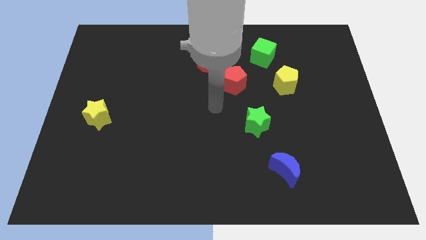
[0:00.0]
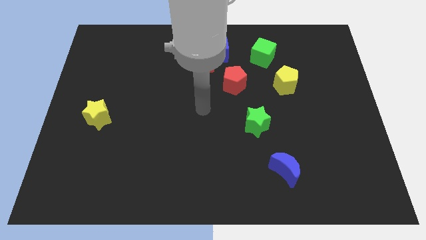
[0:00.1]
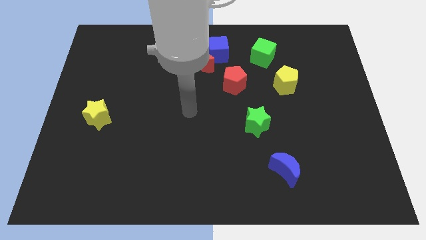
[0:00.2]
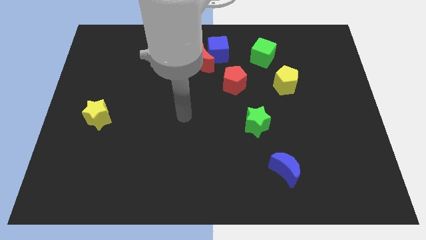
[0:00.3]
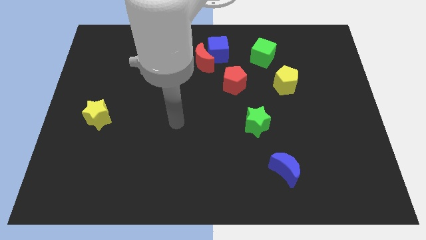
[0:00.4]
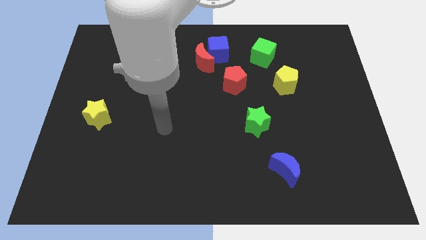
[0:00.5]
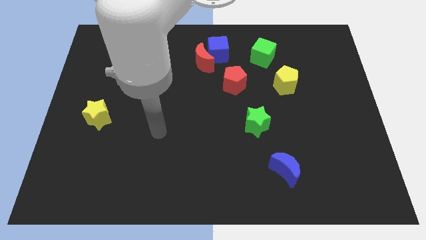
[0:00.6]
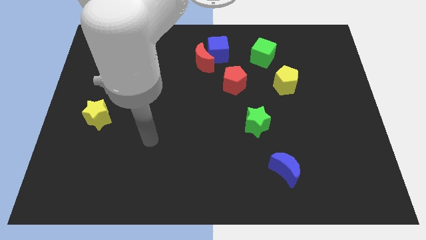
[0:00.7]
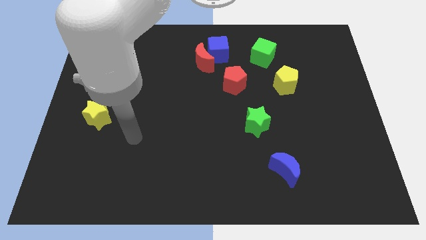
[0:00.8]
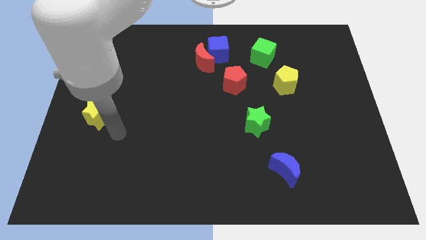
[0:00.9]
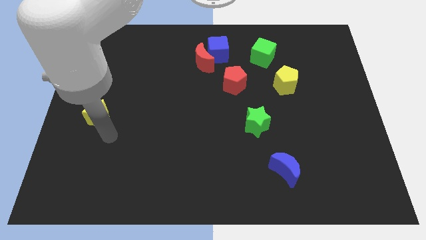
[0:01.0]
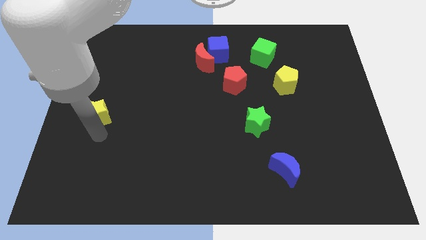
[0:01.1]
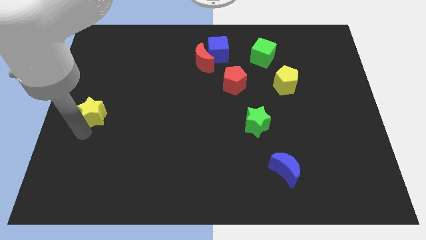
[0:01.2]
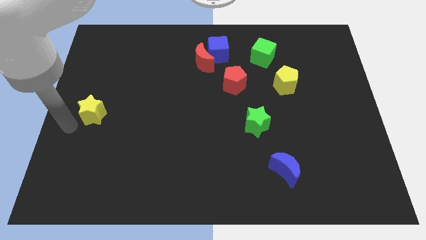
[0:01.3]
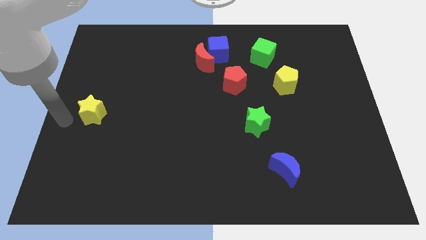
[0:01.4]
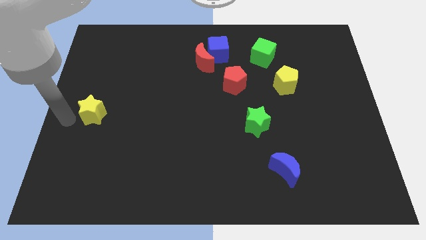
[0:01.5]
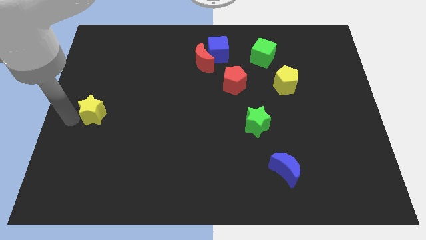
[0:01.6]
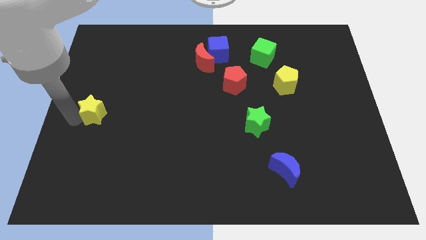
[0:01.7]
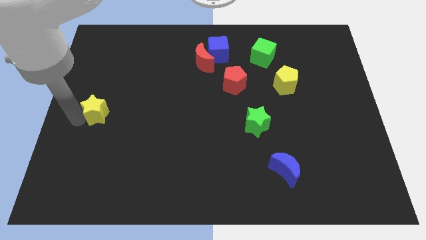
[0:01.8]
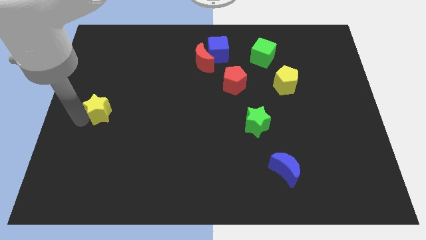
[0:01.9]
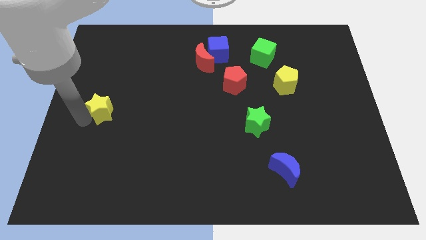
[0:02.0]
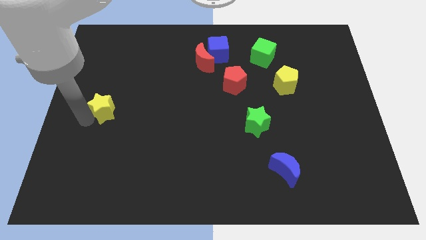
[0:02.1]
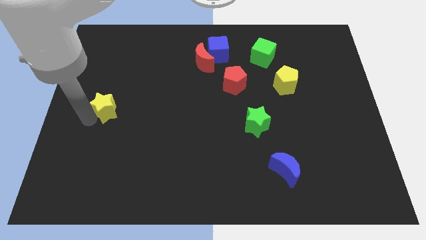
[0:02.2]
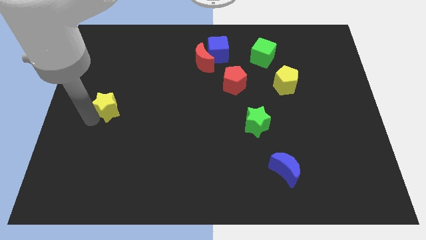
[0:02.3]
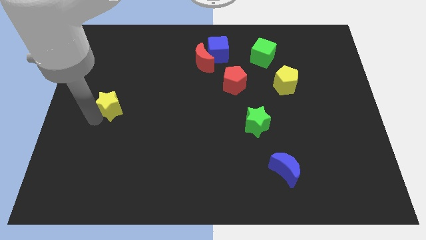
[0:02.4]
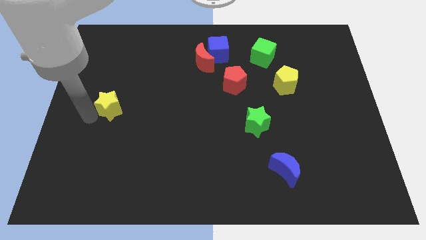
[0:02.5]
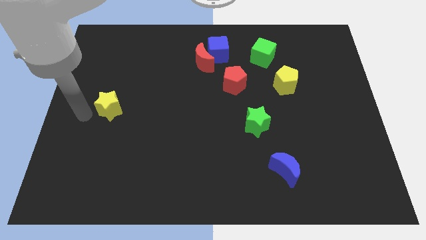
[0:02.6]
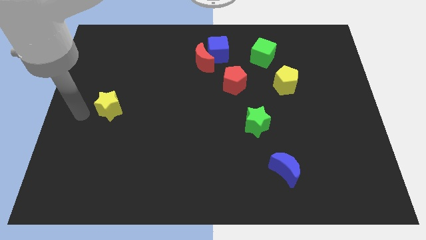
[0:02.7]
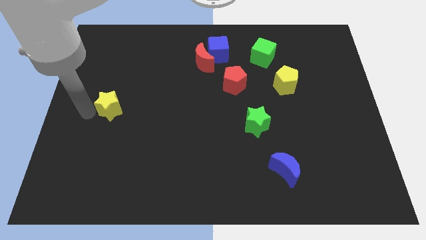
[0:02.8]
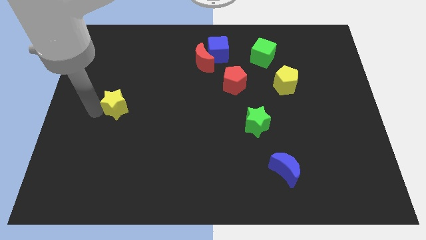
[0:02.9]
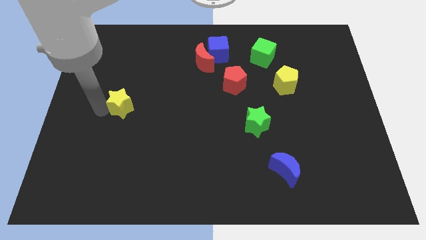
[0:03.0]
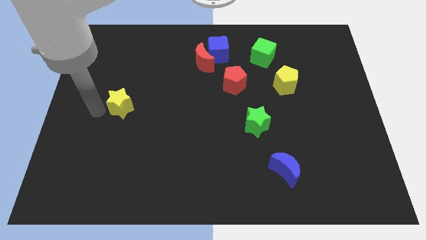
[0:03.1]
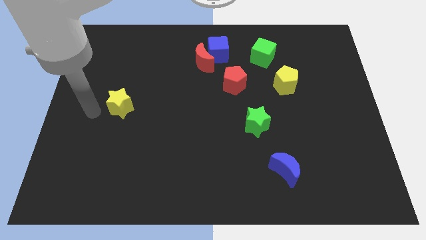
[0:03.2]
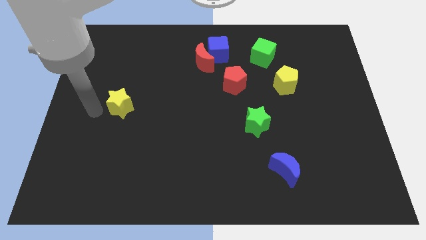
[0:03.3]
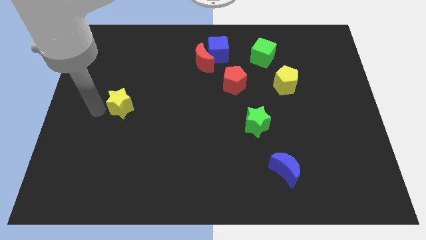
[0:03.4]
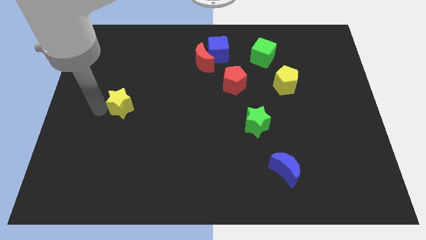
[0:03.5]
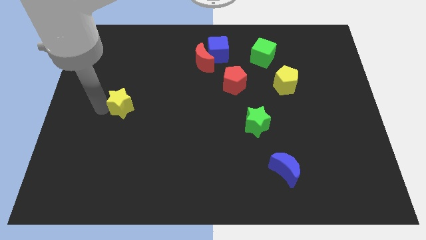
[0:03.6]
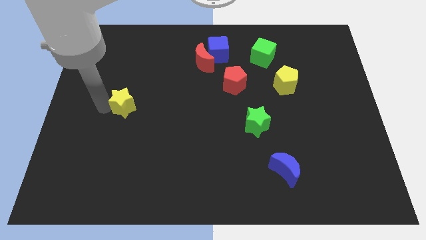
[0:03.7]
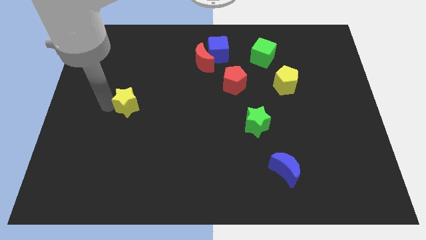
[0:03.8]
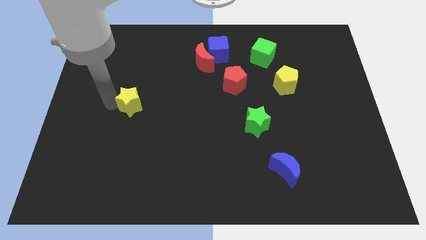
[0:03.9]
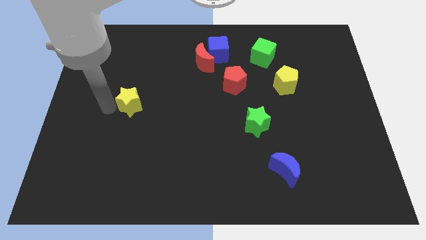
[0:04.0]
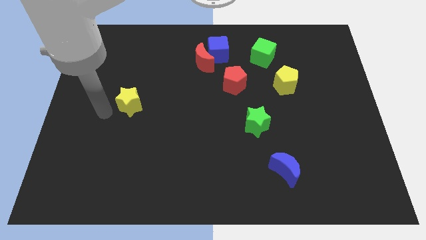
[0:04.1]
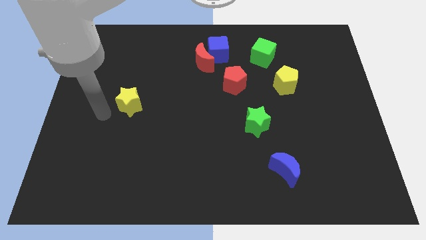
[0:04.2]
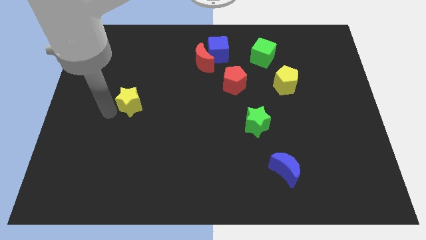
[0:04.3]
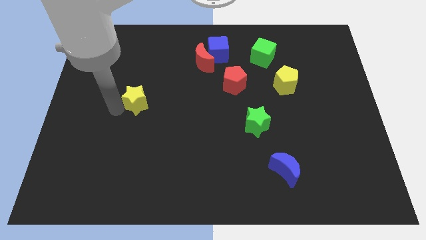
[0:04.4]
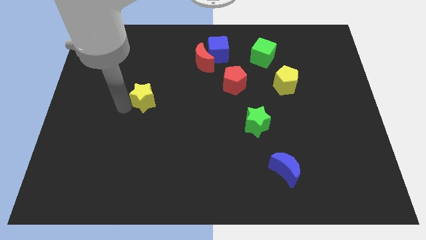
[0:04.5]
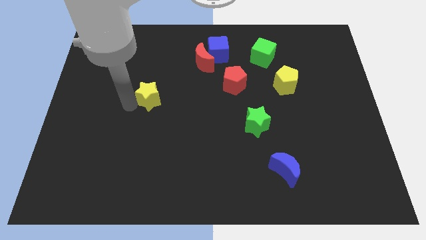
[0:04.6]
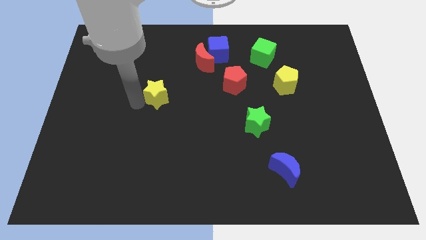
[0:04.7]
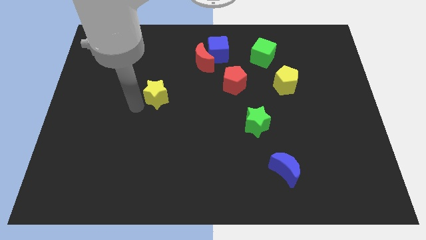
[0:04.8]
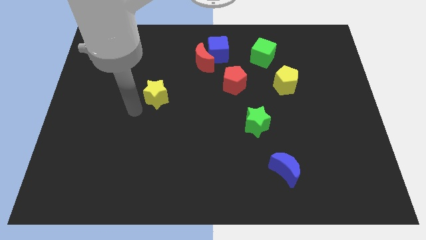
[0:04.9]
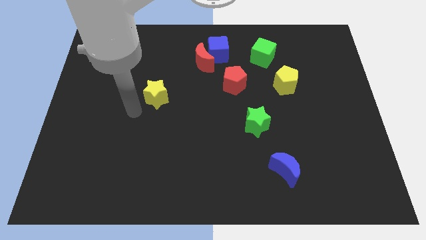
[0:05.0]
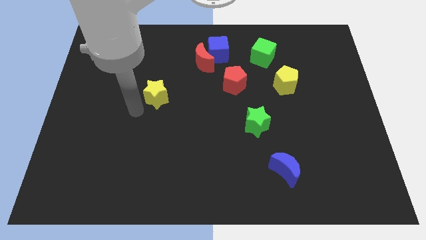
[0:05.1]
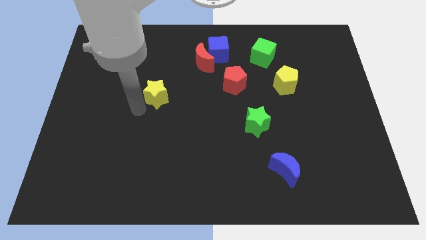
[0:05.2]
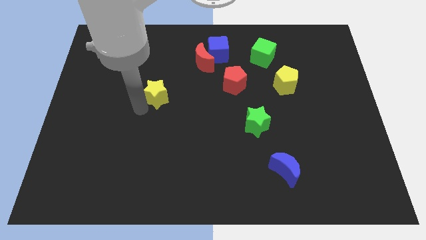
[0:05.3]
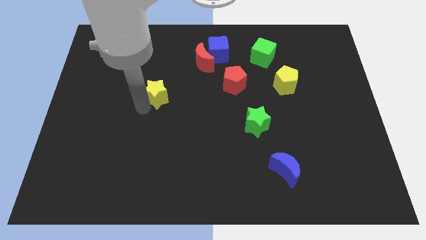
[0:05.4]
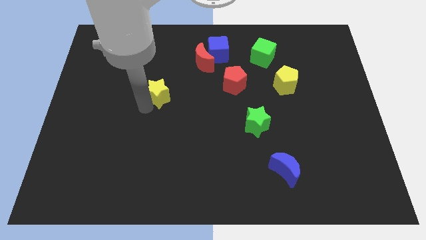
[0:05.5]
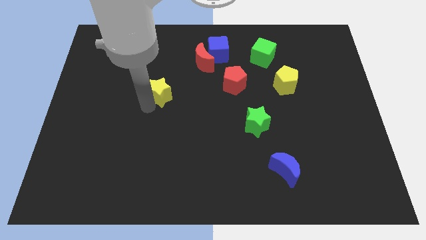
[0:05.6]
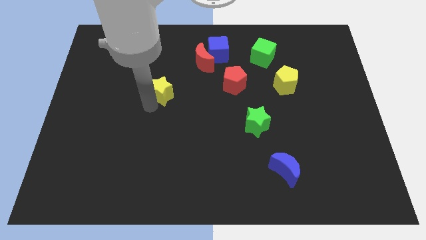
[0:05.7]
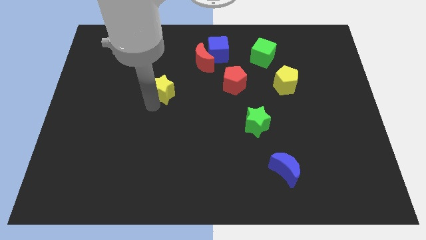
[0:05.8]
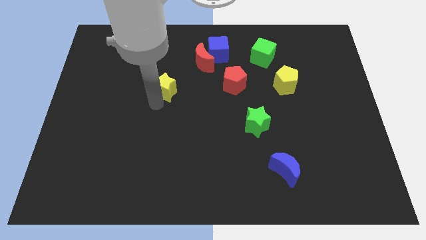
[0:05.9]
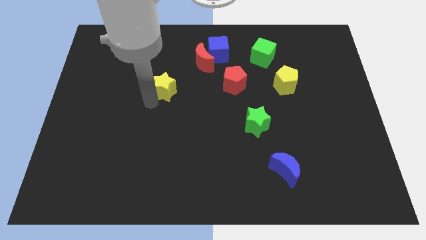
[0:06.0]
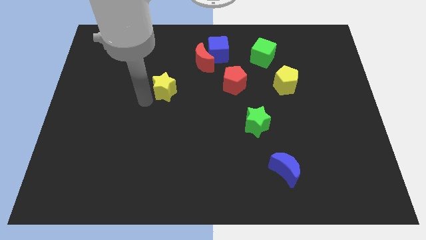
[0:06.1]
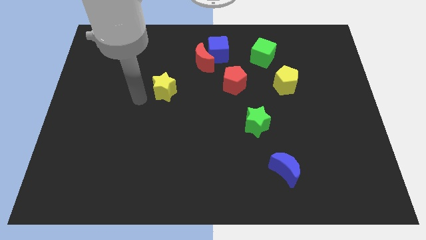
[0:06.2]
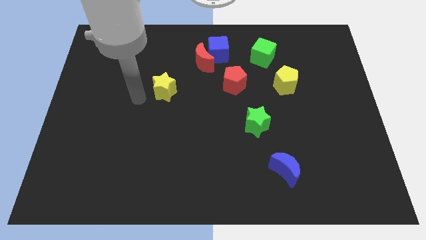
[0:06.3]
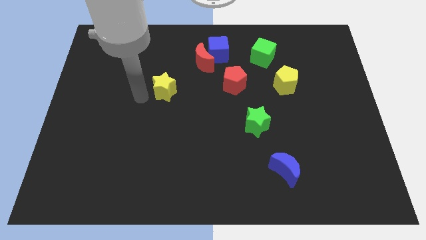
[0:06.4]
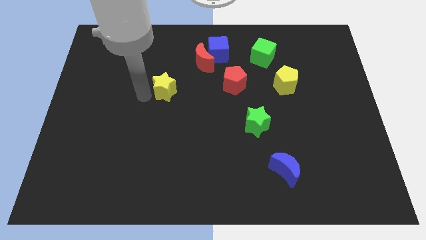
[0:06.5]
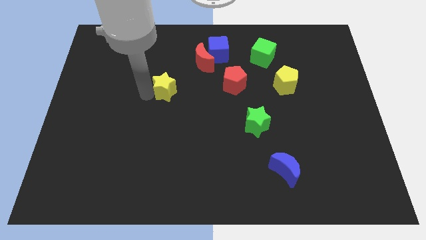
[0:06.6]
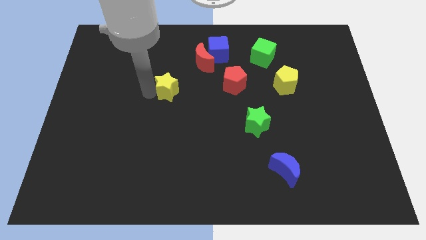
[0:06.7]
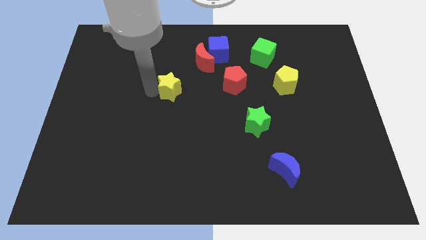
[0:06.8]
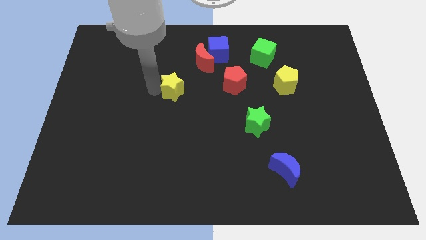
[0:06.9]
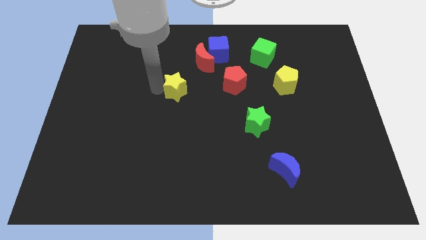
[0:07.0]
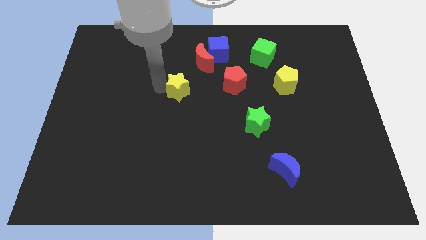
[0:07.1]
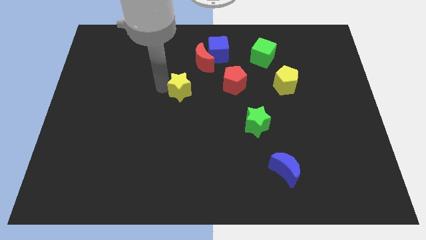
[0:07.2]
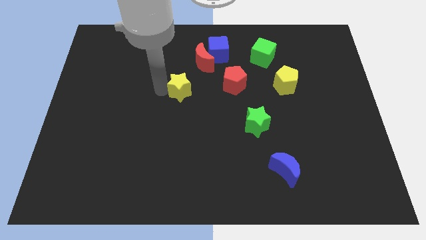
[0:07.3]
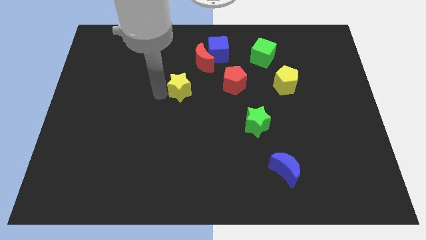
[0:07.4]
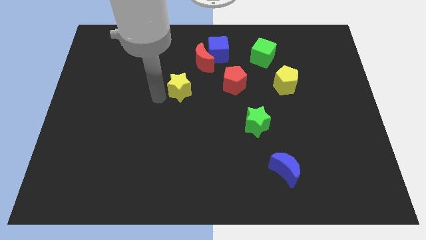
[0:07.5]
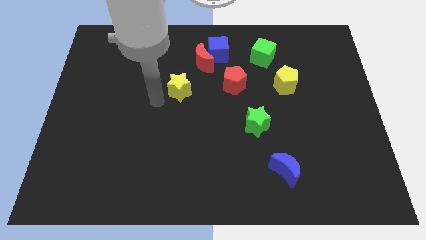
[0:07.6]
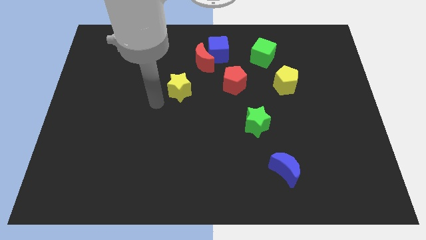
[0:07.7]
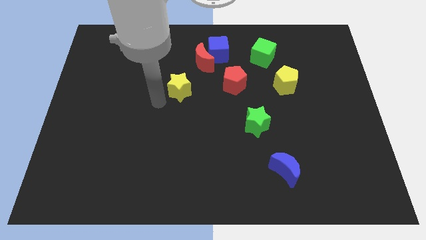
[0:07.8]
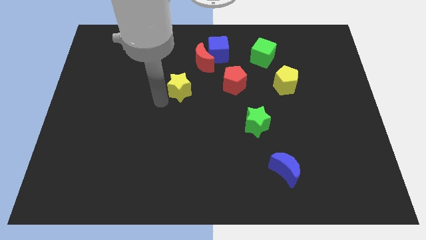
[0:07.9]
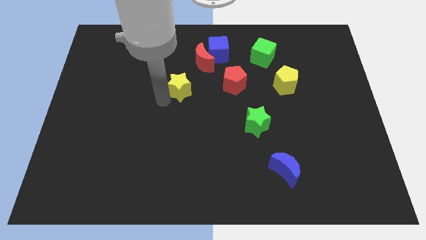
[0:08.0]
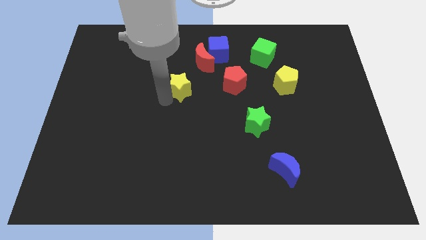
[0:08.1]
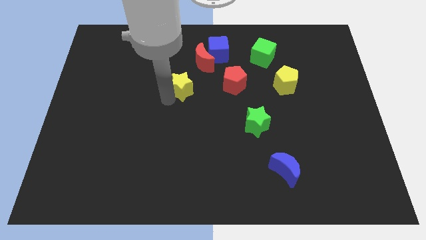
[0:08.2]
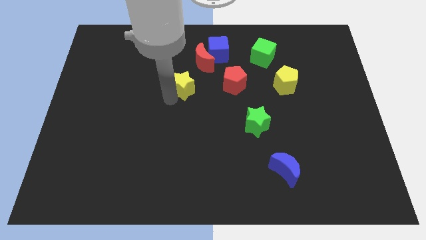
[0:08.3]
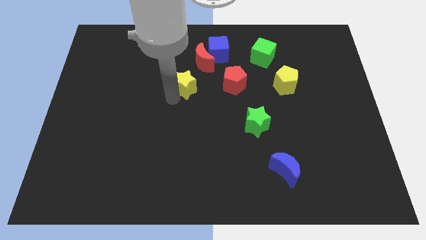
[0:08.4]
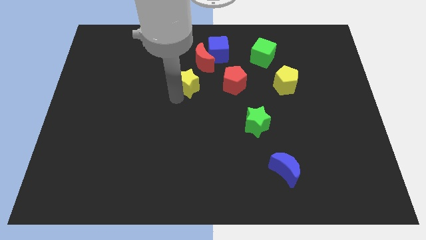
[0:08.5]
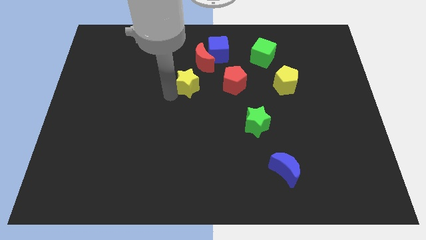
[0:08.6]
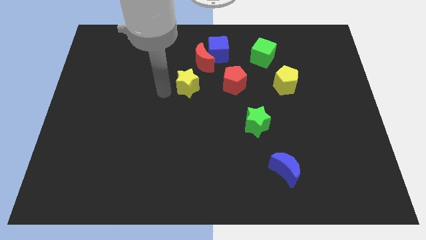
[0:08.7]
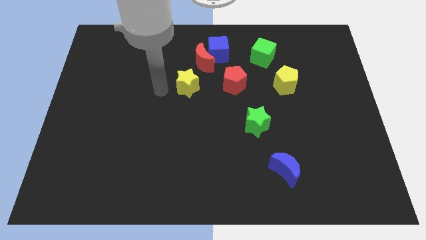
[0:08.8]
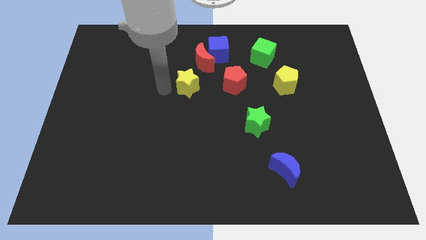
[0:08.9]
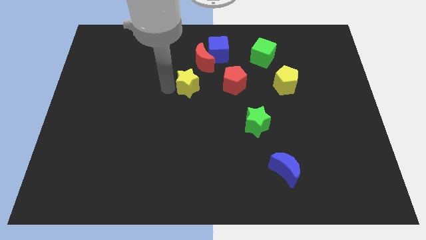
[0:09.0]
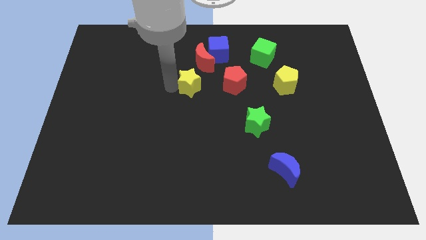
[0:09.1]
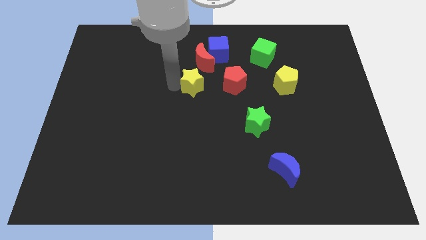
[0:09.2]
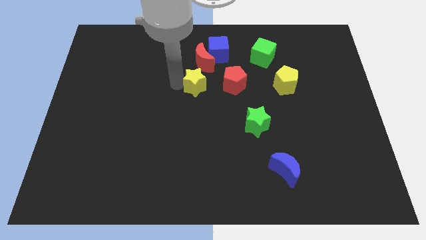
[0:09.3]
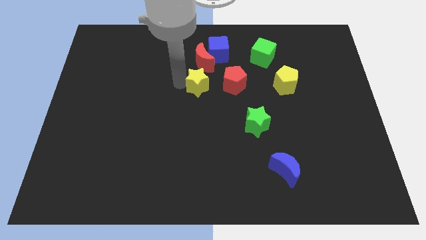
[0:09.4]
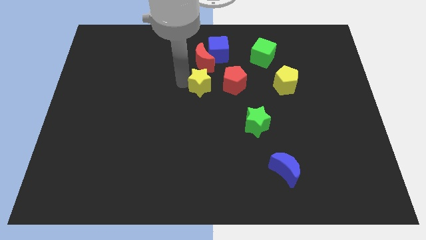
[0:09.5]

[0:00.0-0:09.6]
push the yellow star to the bottom side of the blue cube
